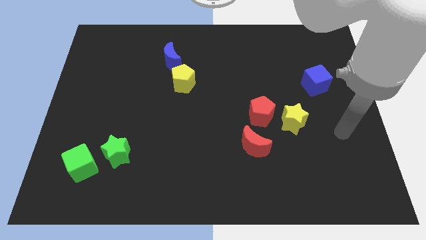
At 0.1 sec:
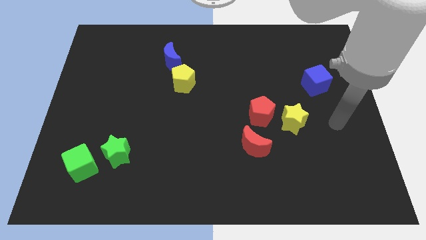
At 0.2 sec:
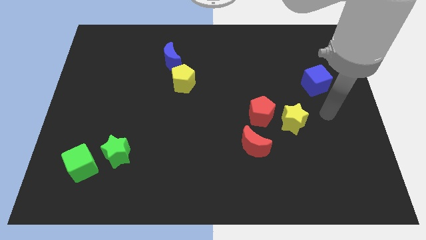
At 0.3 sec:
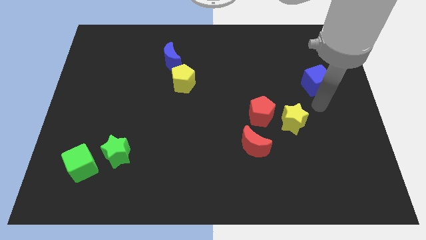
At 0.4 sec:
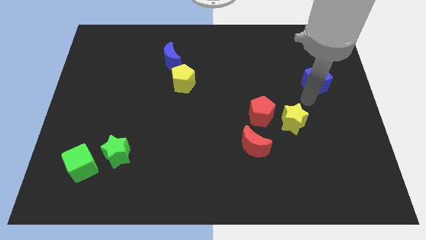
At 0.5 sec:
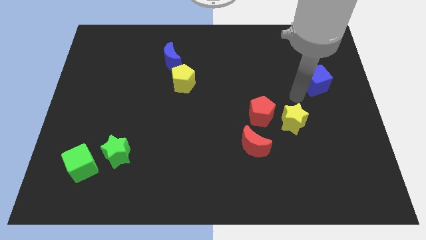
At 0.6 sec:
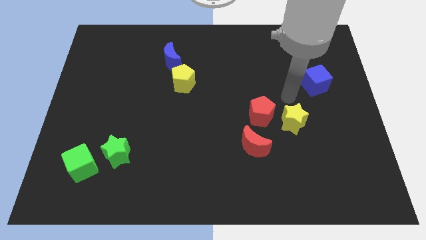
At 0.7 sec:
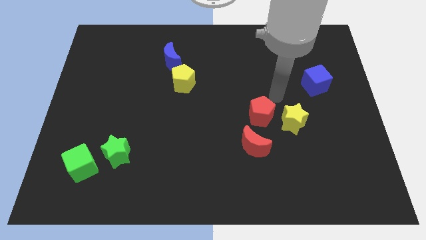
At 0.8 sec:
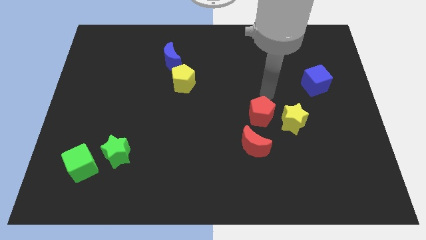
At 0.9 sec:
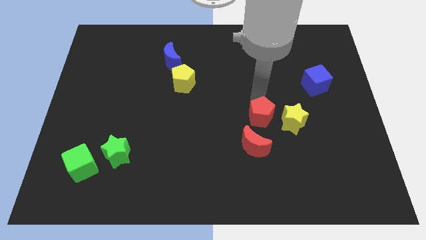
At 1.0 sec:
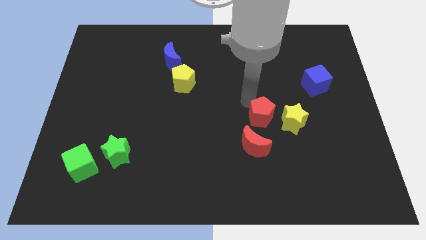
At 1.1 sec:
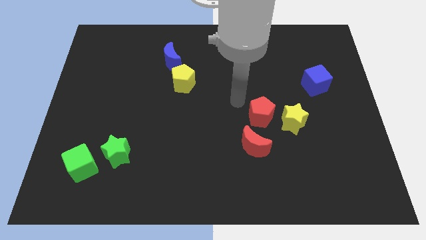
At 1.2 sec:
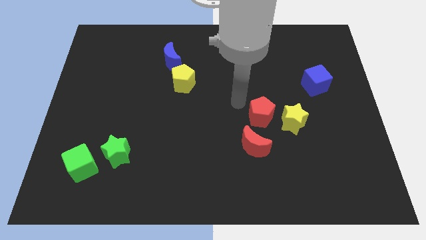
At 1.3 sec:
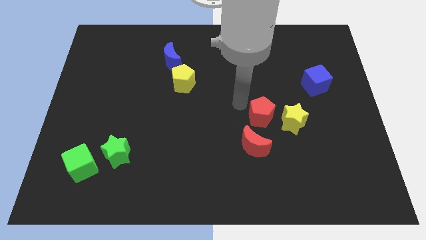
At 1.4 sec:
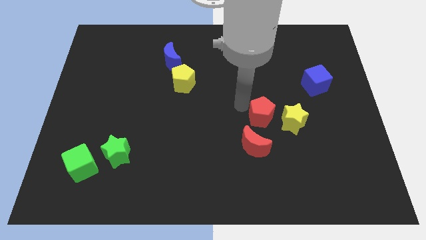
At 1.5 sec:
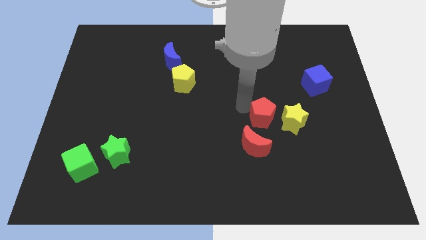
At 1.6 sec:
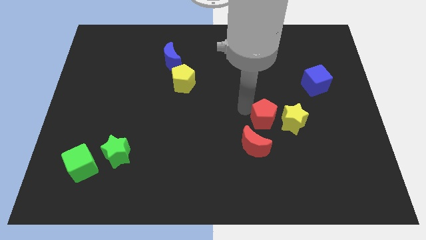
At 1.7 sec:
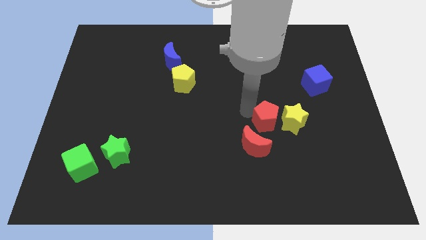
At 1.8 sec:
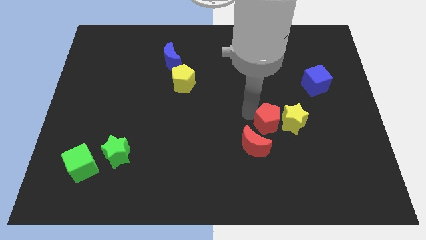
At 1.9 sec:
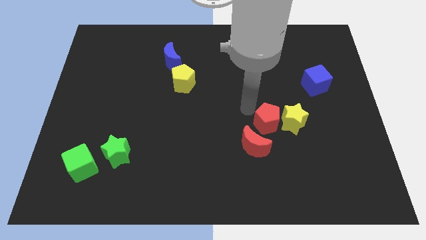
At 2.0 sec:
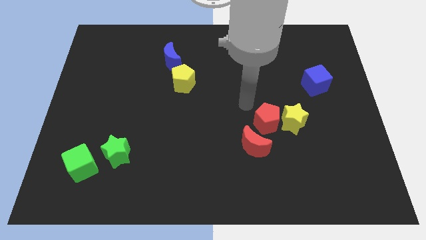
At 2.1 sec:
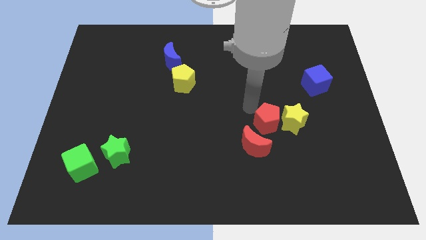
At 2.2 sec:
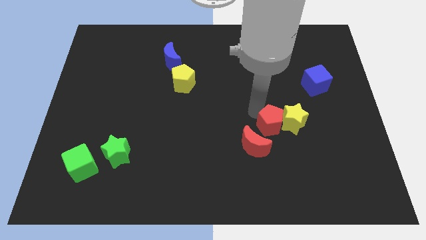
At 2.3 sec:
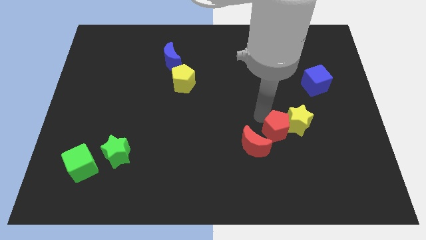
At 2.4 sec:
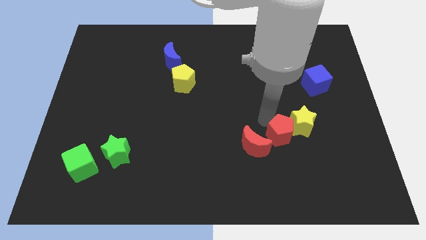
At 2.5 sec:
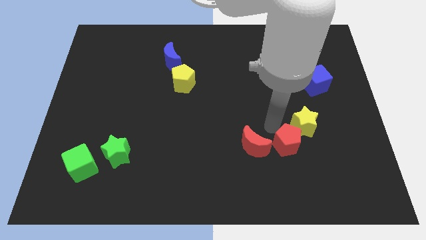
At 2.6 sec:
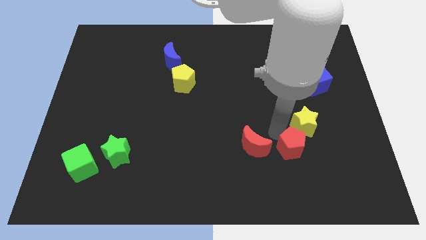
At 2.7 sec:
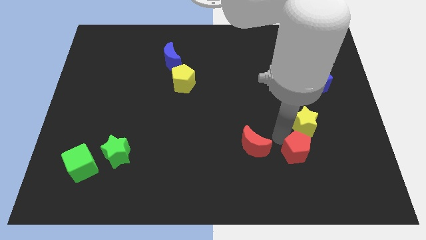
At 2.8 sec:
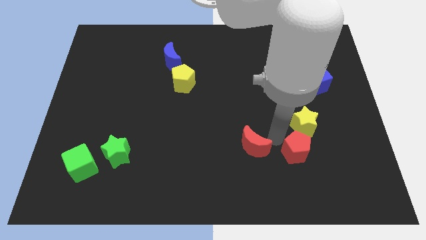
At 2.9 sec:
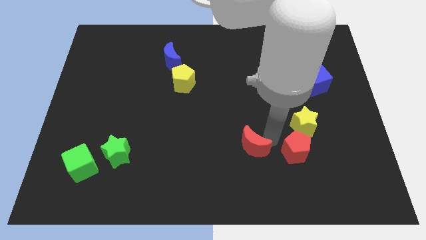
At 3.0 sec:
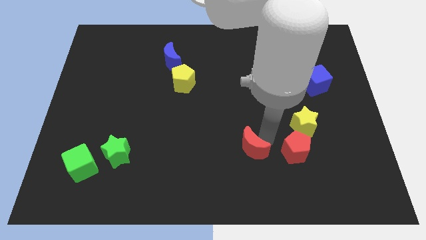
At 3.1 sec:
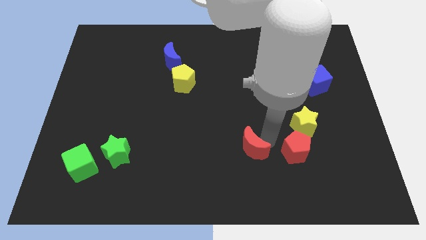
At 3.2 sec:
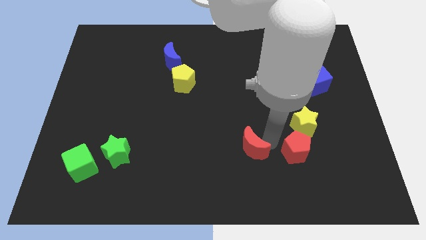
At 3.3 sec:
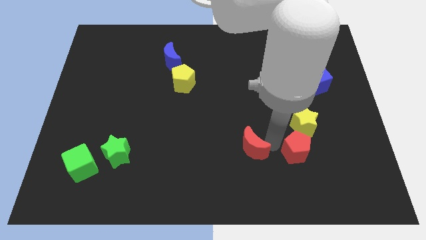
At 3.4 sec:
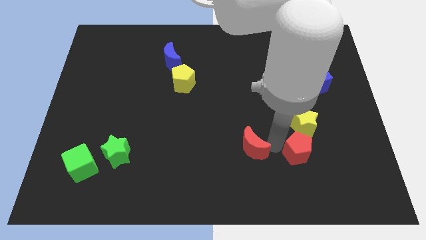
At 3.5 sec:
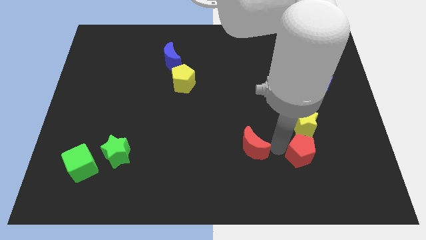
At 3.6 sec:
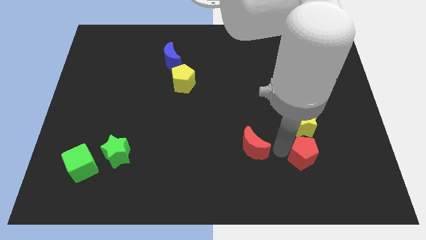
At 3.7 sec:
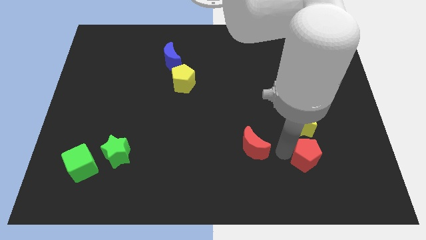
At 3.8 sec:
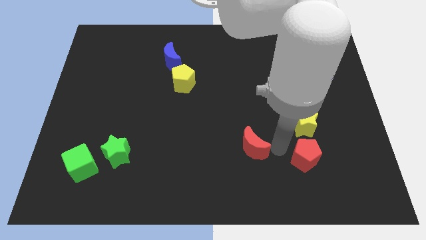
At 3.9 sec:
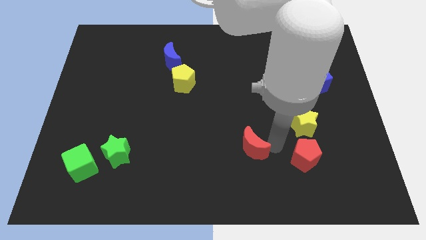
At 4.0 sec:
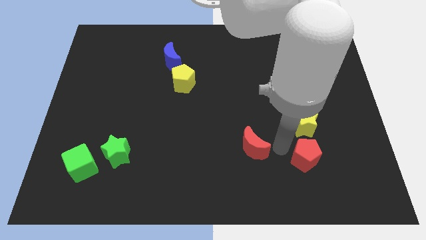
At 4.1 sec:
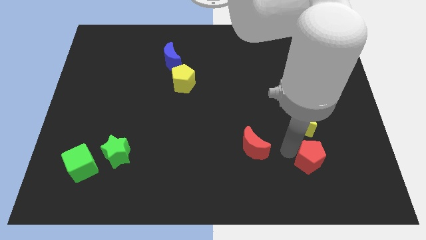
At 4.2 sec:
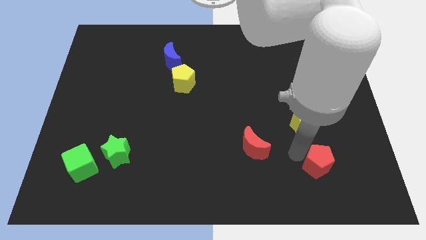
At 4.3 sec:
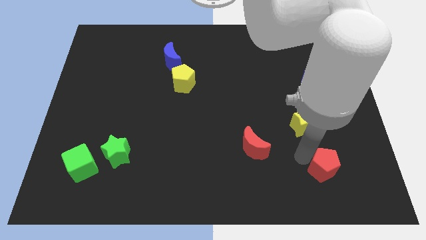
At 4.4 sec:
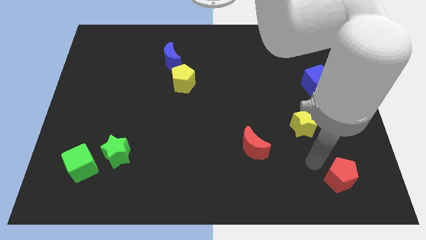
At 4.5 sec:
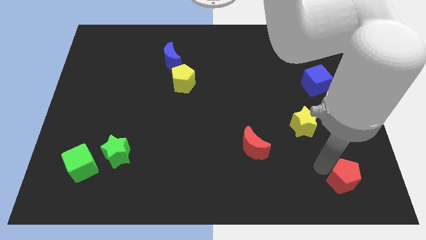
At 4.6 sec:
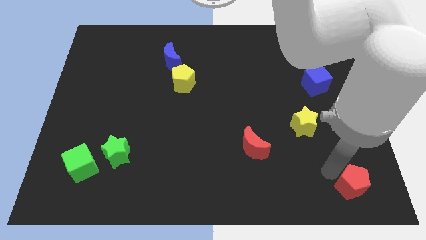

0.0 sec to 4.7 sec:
push the red pentagon to the bottom right

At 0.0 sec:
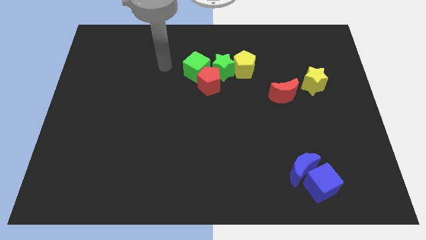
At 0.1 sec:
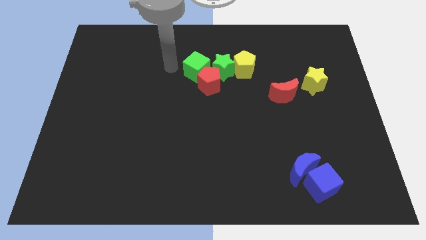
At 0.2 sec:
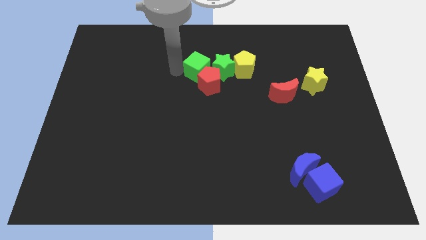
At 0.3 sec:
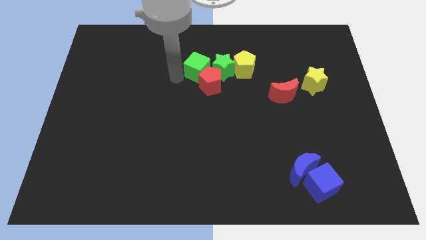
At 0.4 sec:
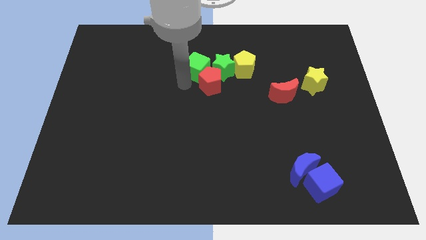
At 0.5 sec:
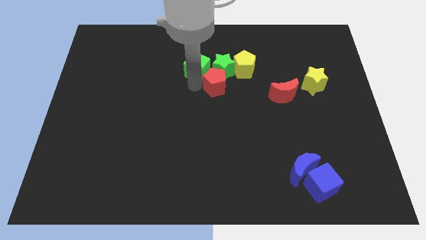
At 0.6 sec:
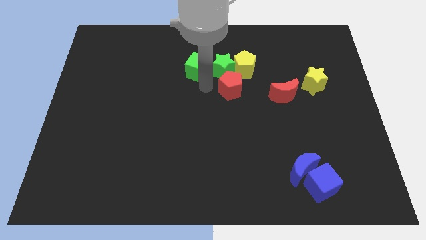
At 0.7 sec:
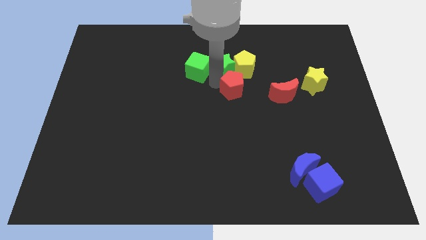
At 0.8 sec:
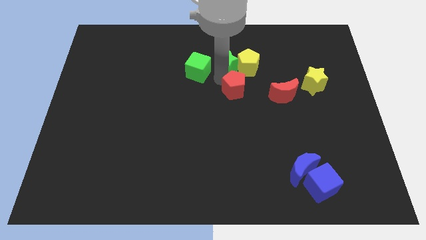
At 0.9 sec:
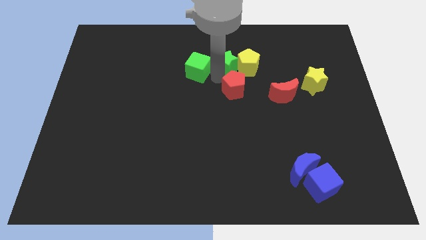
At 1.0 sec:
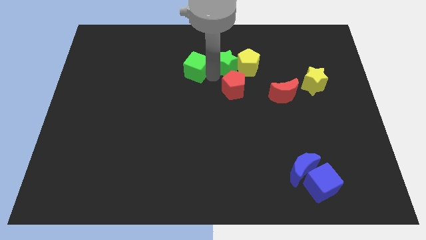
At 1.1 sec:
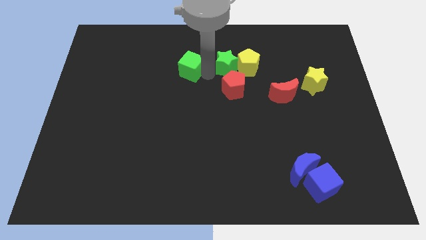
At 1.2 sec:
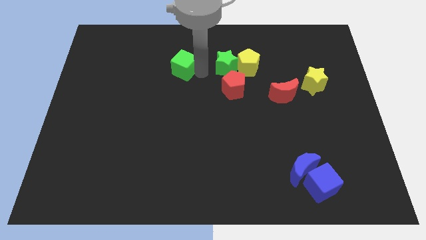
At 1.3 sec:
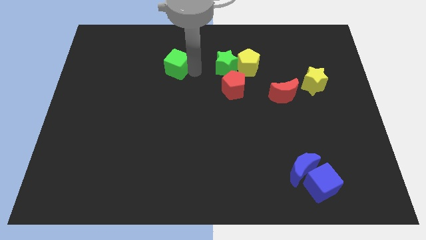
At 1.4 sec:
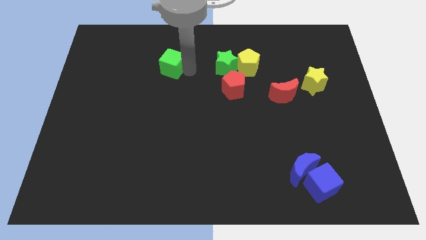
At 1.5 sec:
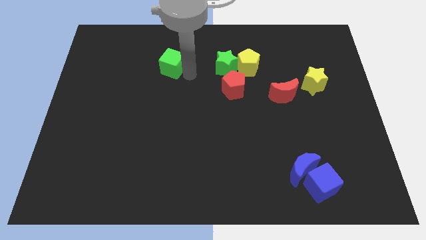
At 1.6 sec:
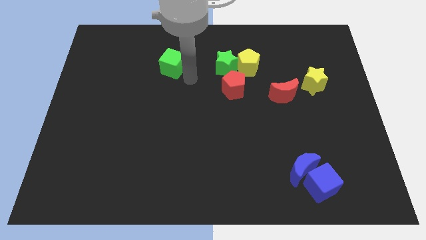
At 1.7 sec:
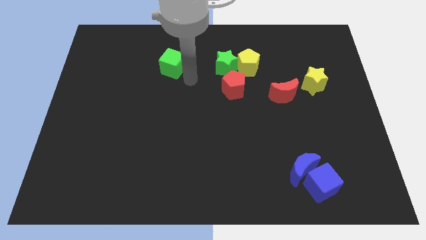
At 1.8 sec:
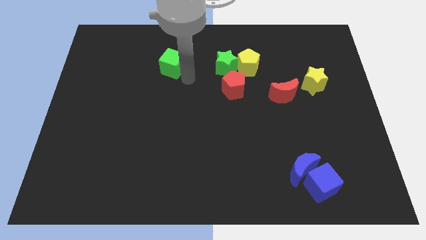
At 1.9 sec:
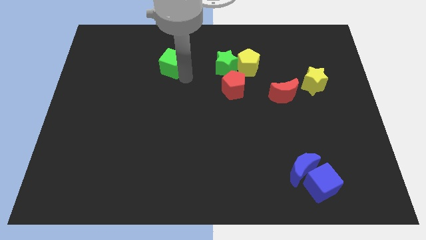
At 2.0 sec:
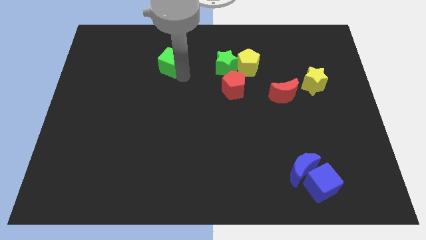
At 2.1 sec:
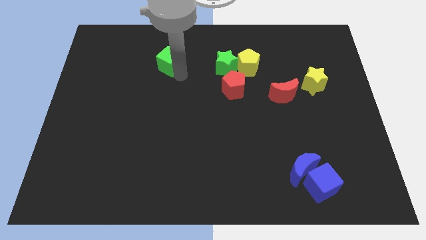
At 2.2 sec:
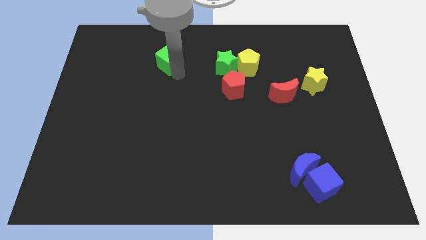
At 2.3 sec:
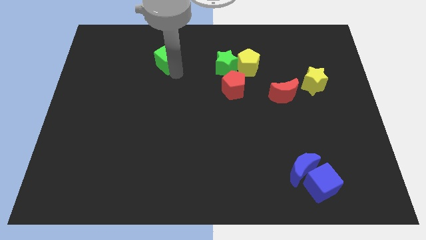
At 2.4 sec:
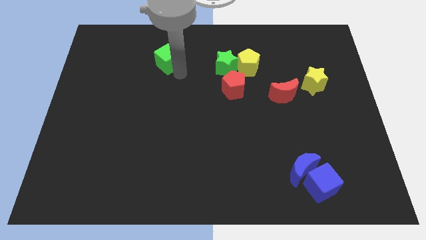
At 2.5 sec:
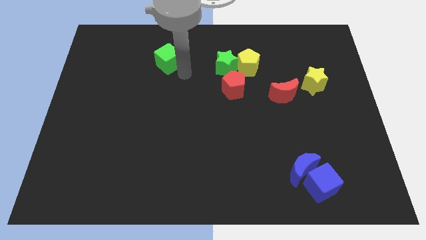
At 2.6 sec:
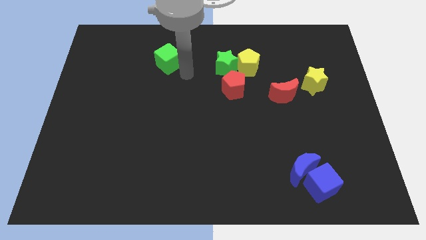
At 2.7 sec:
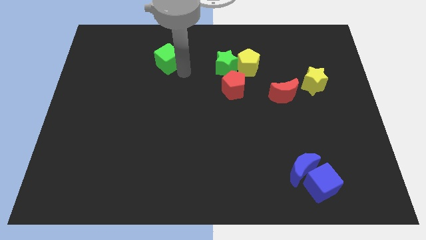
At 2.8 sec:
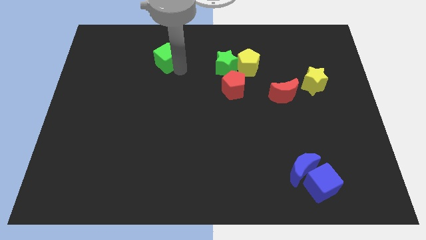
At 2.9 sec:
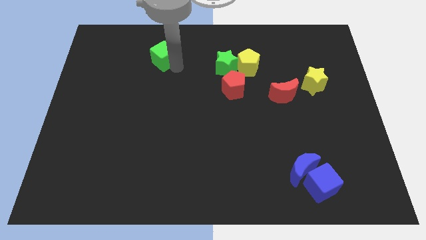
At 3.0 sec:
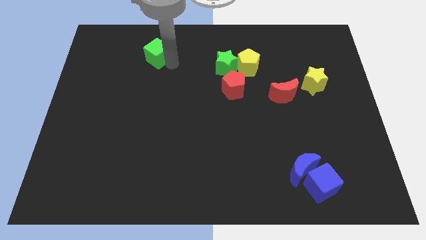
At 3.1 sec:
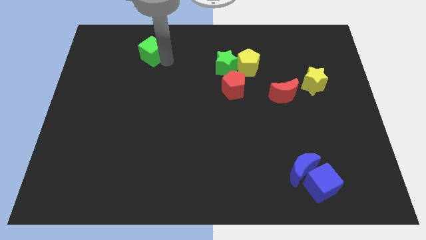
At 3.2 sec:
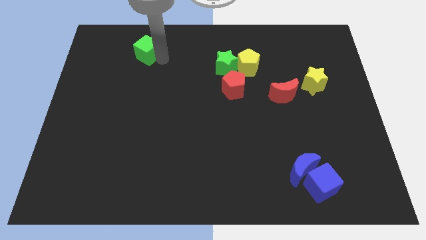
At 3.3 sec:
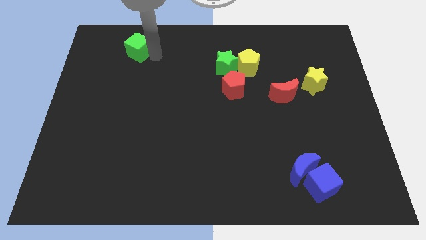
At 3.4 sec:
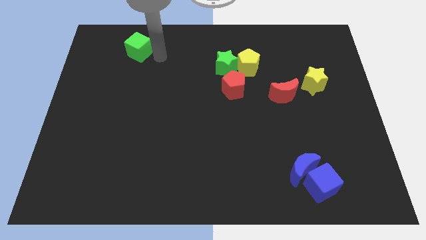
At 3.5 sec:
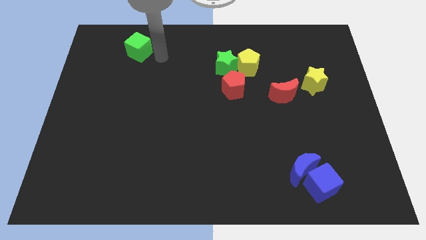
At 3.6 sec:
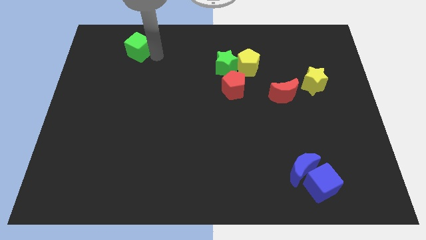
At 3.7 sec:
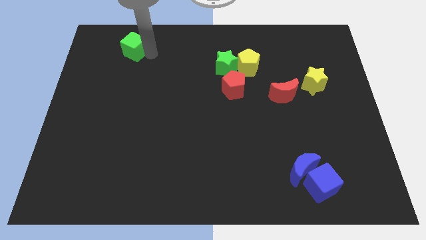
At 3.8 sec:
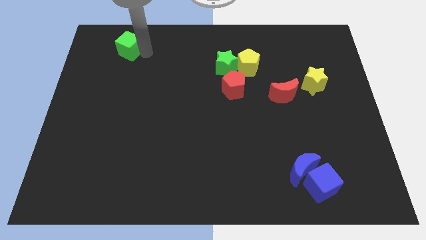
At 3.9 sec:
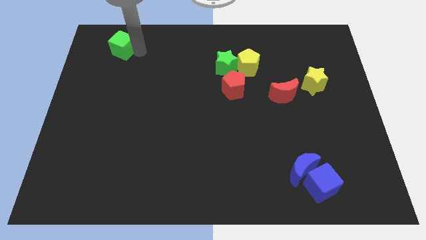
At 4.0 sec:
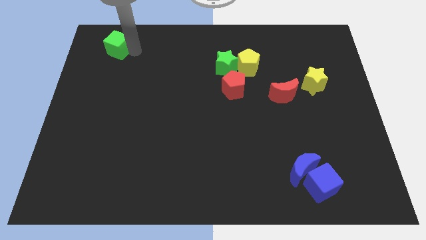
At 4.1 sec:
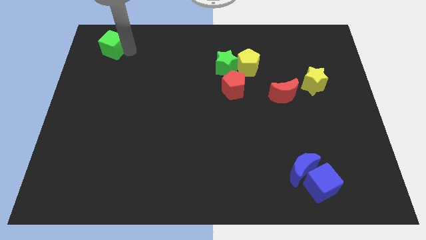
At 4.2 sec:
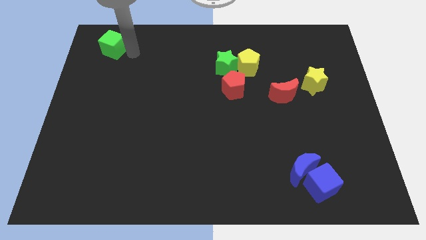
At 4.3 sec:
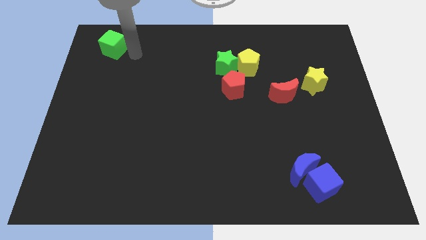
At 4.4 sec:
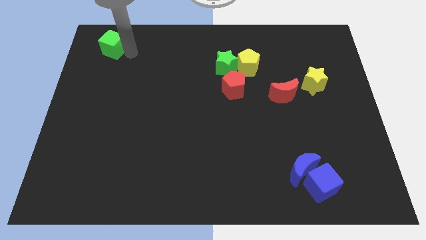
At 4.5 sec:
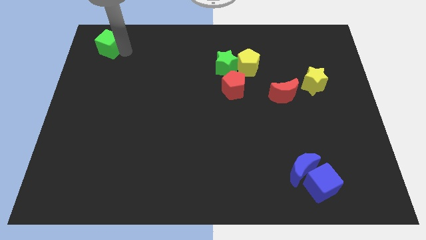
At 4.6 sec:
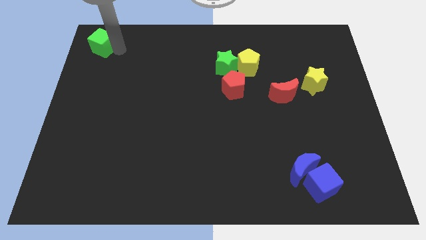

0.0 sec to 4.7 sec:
move the green cube to the top left corner
